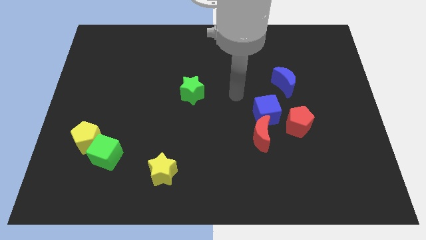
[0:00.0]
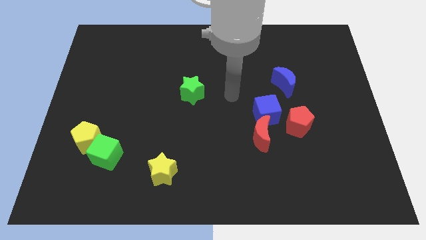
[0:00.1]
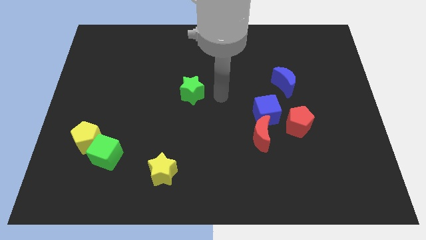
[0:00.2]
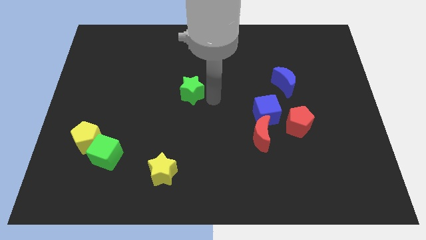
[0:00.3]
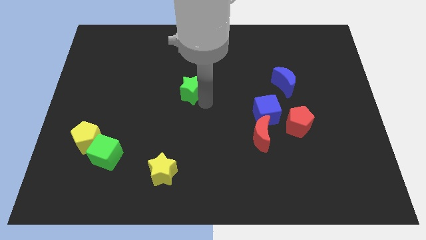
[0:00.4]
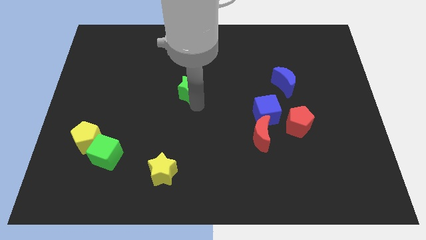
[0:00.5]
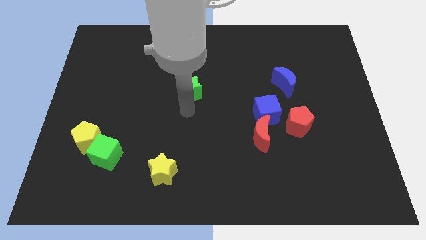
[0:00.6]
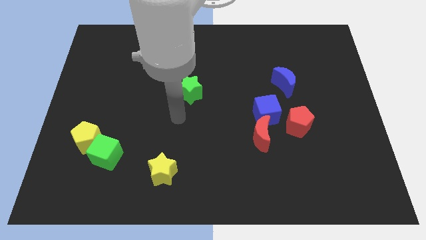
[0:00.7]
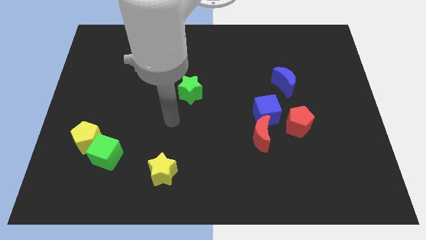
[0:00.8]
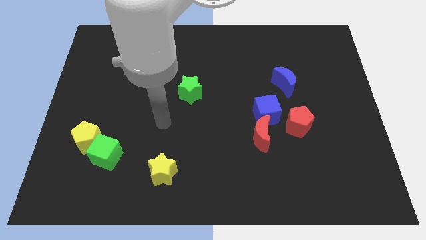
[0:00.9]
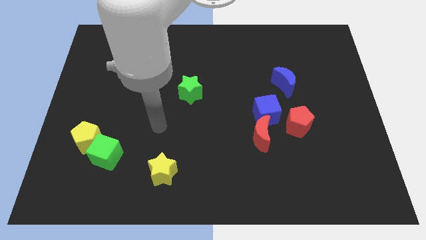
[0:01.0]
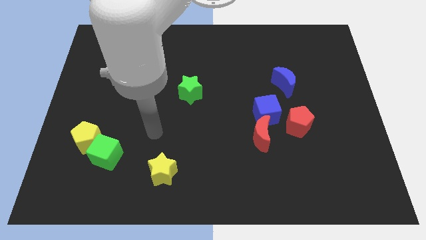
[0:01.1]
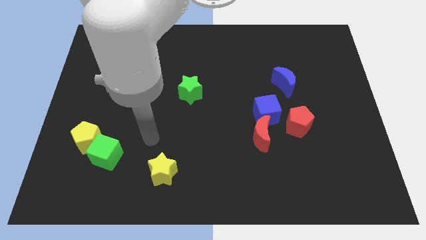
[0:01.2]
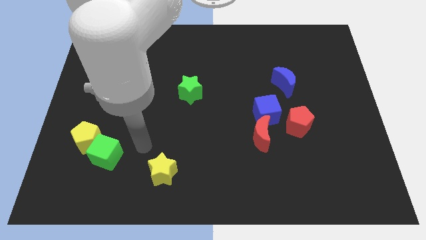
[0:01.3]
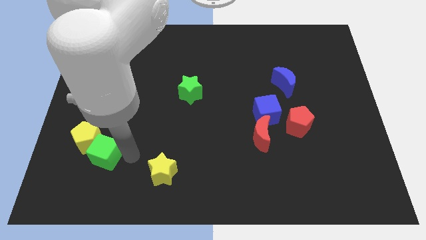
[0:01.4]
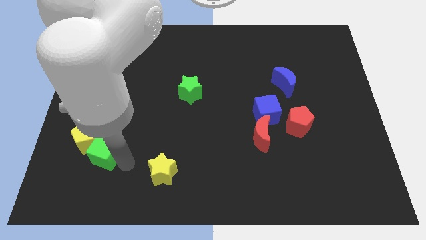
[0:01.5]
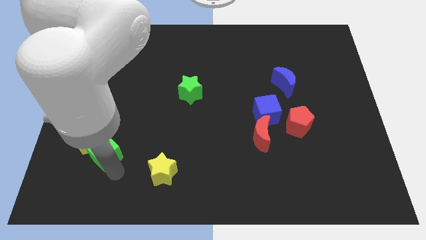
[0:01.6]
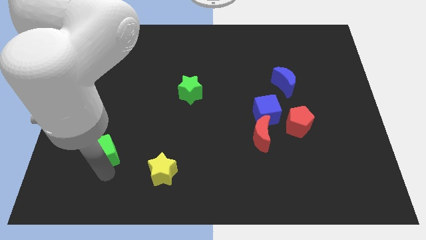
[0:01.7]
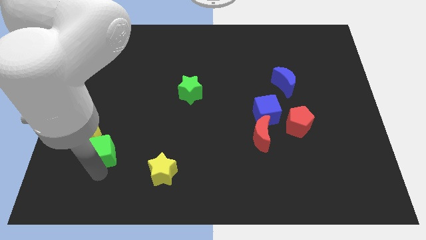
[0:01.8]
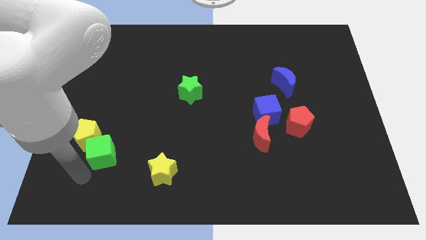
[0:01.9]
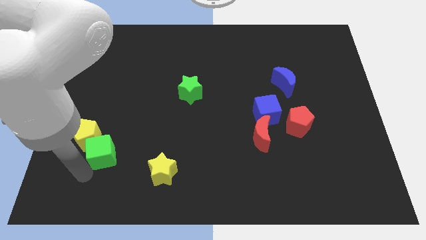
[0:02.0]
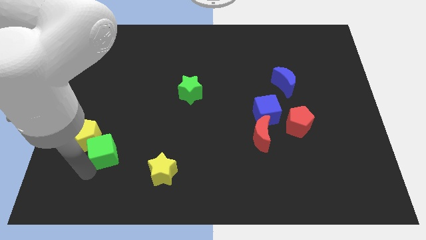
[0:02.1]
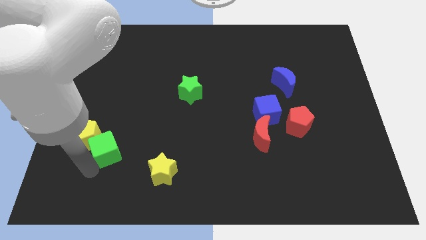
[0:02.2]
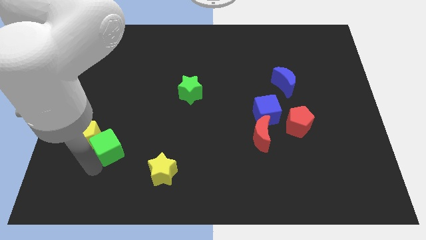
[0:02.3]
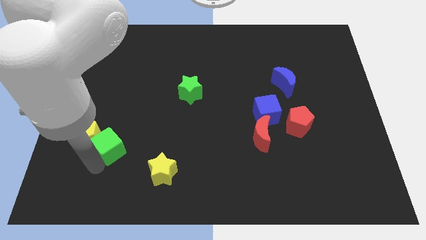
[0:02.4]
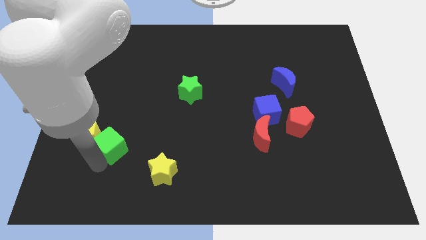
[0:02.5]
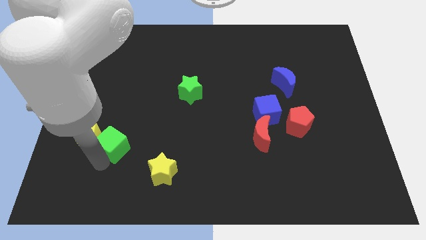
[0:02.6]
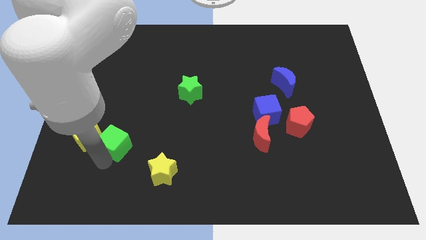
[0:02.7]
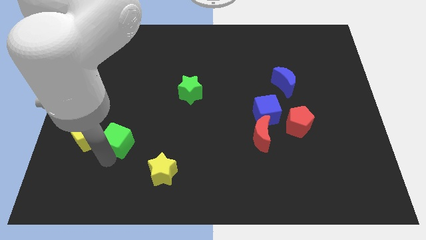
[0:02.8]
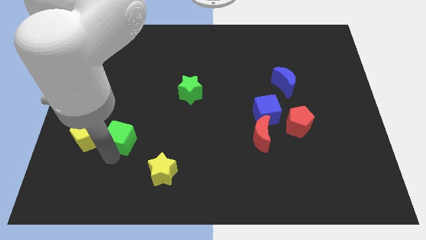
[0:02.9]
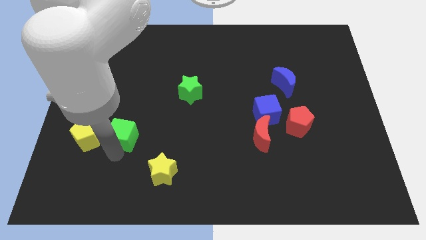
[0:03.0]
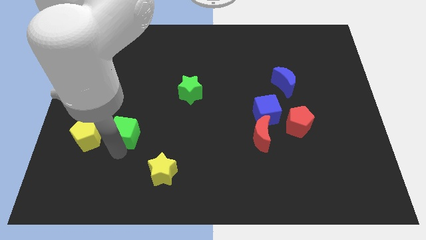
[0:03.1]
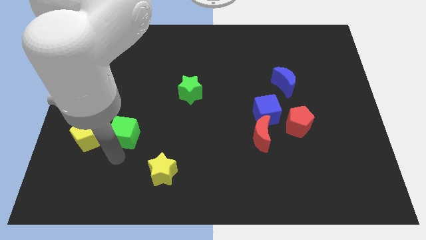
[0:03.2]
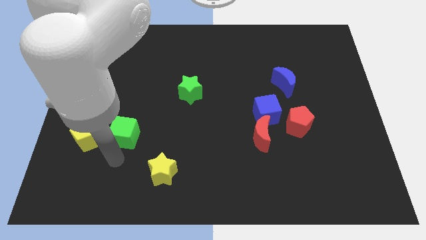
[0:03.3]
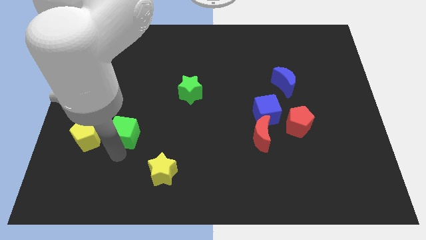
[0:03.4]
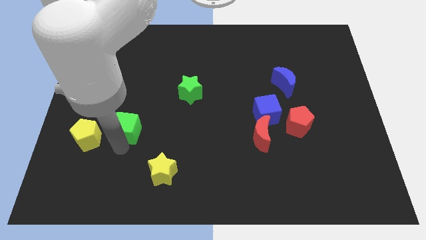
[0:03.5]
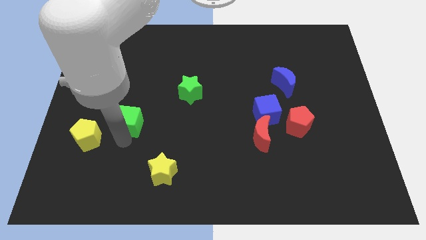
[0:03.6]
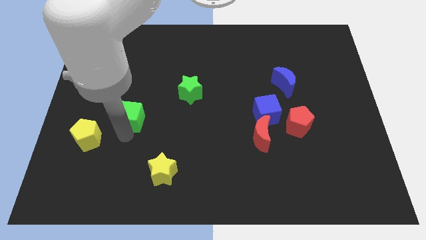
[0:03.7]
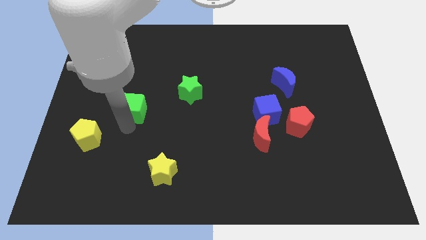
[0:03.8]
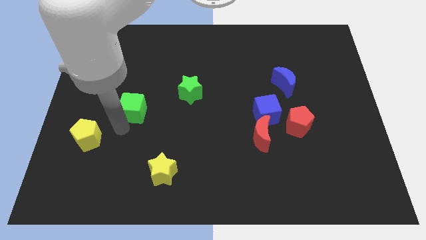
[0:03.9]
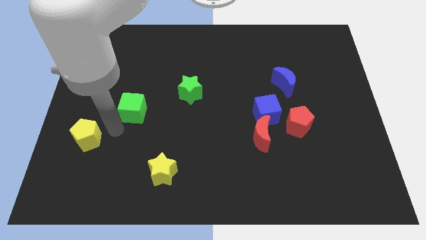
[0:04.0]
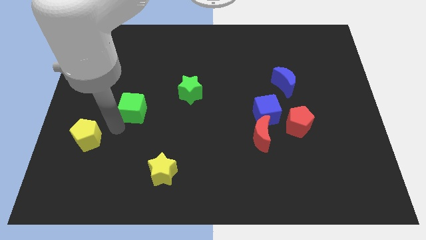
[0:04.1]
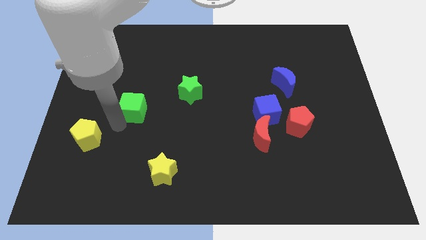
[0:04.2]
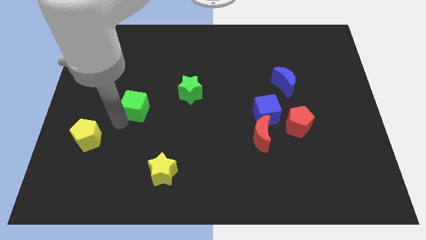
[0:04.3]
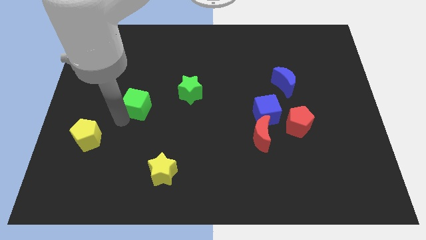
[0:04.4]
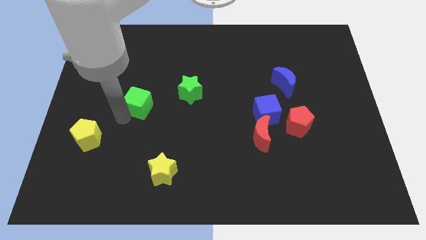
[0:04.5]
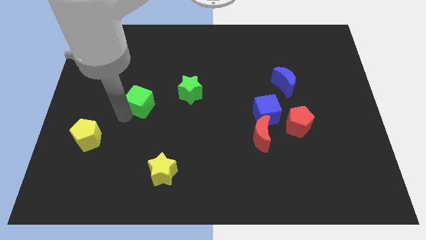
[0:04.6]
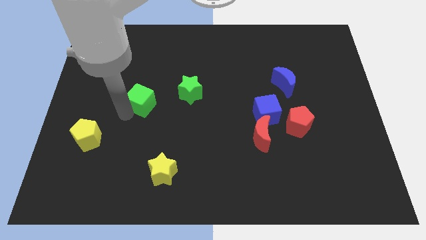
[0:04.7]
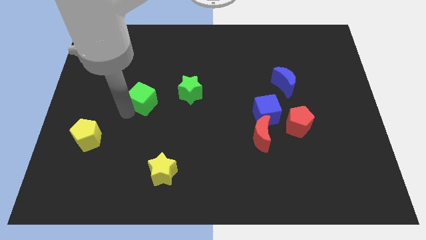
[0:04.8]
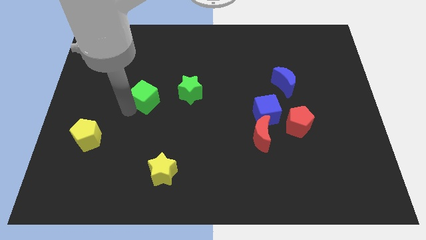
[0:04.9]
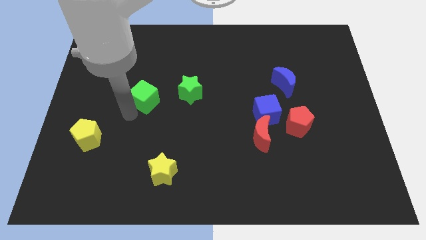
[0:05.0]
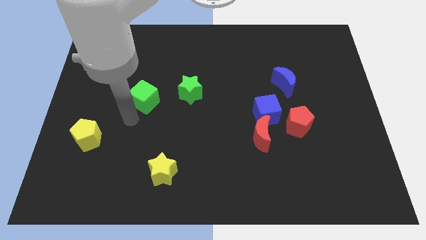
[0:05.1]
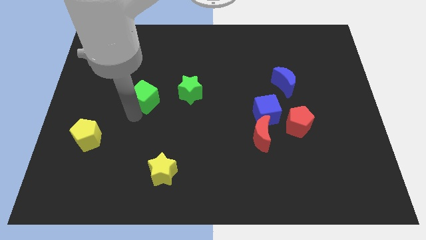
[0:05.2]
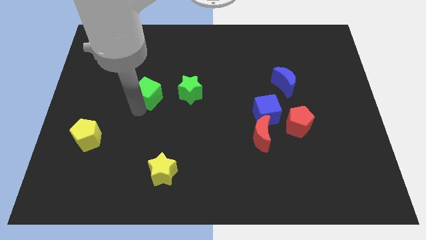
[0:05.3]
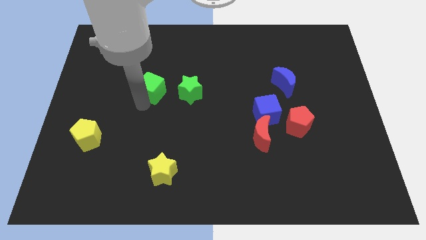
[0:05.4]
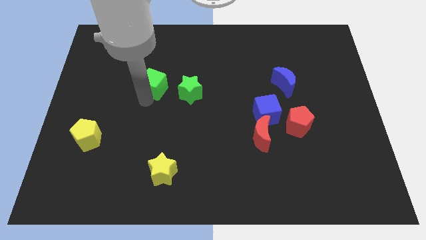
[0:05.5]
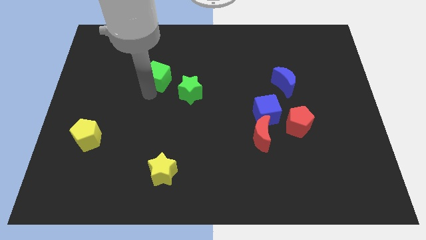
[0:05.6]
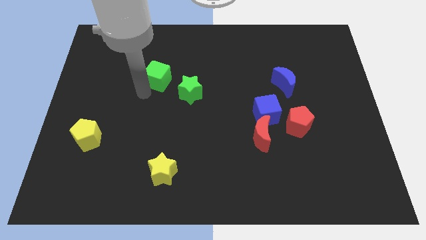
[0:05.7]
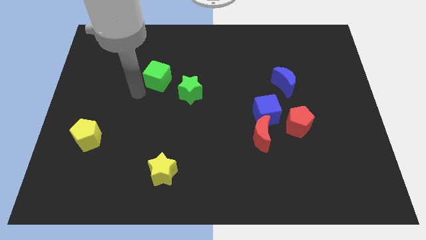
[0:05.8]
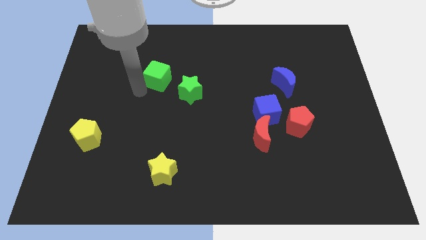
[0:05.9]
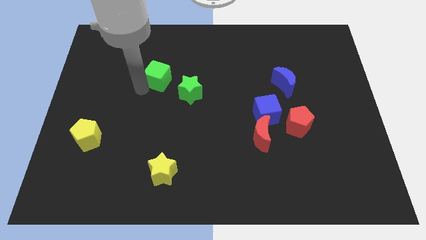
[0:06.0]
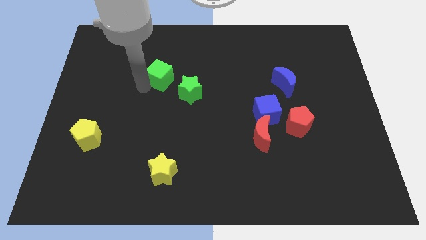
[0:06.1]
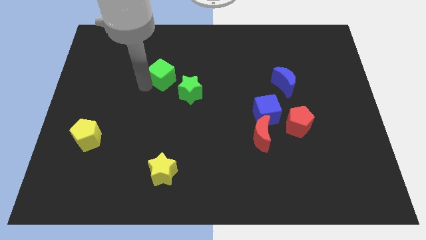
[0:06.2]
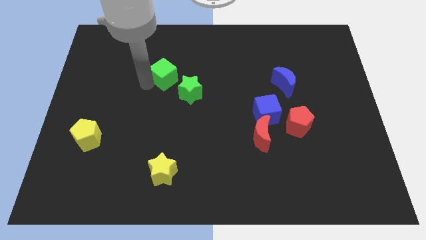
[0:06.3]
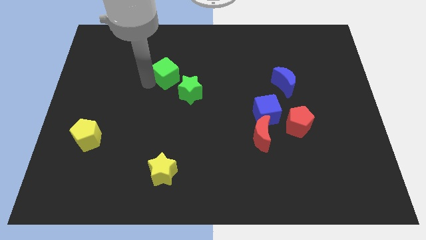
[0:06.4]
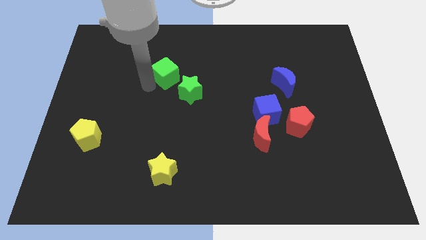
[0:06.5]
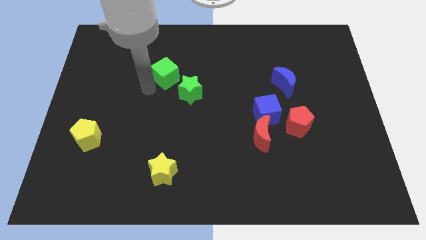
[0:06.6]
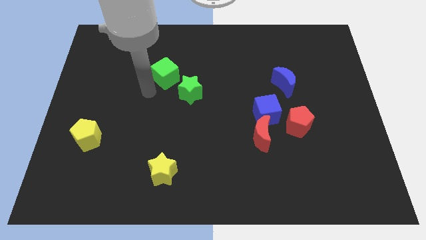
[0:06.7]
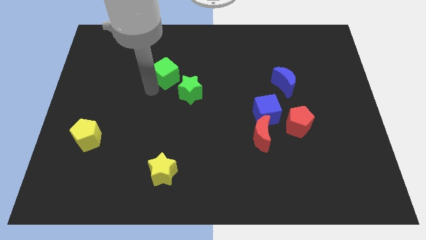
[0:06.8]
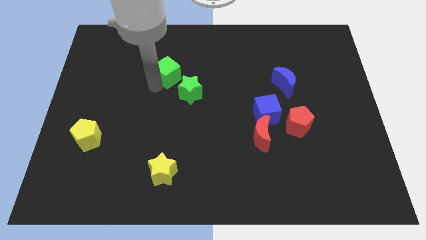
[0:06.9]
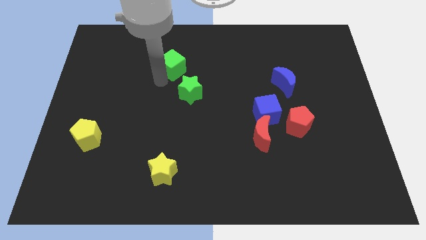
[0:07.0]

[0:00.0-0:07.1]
move the green cube to the top of the green star
